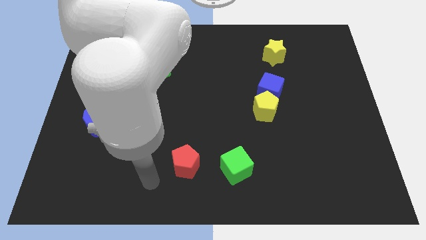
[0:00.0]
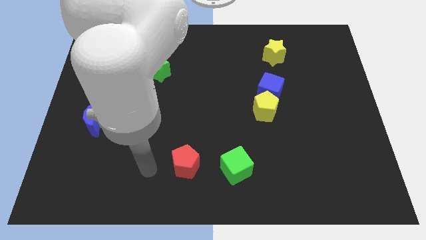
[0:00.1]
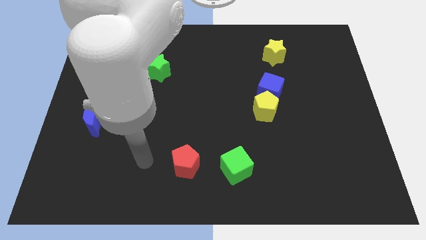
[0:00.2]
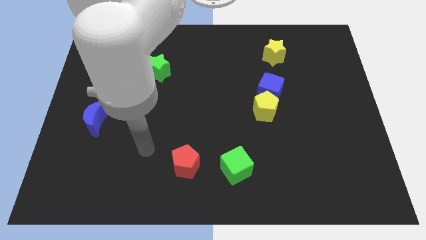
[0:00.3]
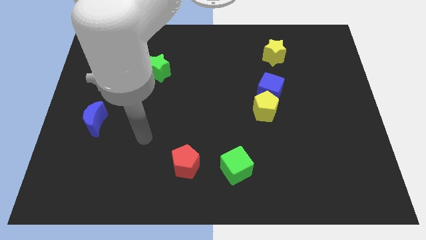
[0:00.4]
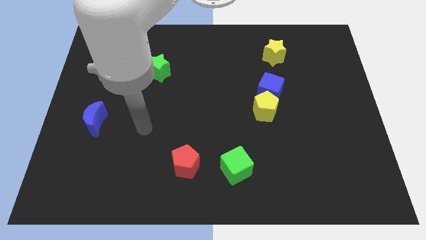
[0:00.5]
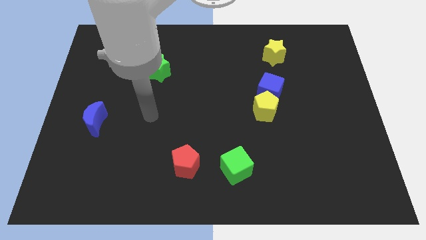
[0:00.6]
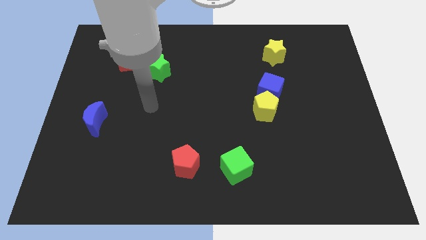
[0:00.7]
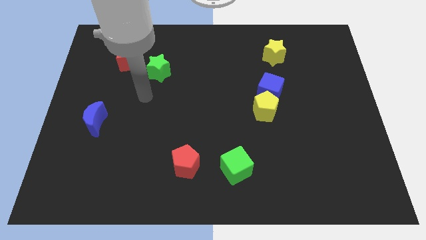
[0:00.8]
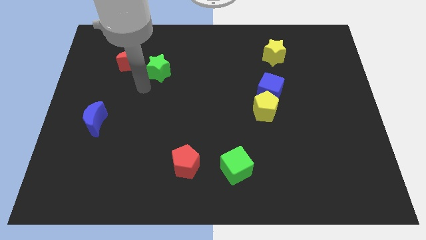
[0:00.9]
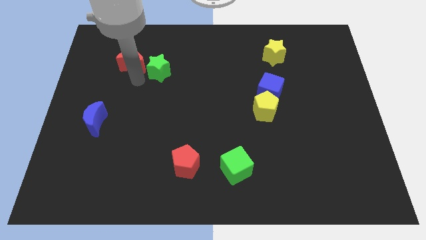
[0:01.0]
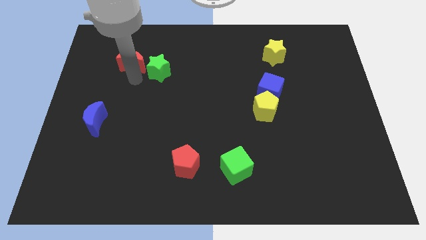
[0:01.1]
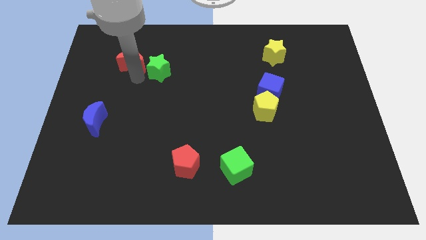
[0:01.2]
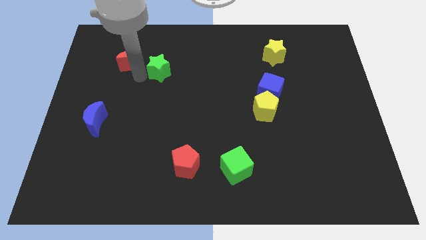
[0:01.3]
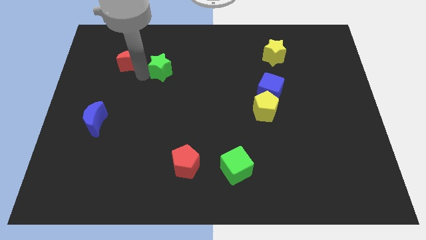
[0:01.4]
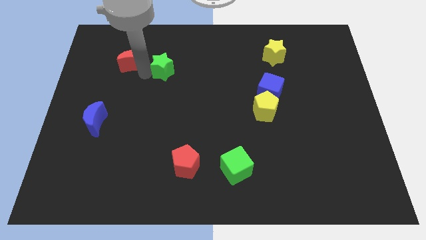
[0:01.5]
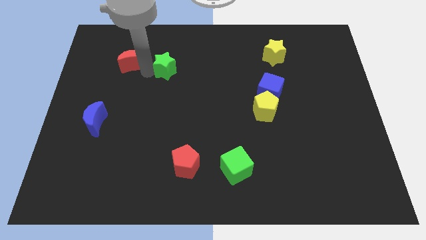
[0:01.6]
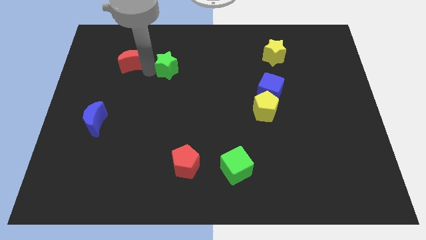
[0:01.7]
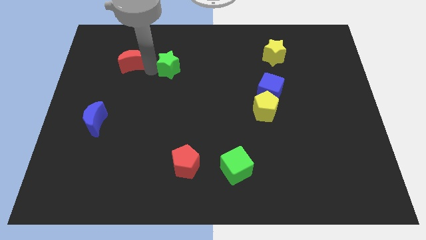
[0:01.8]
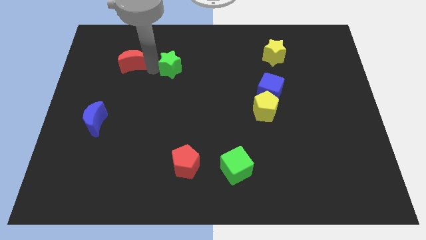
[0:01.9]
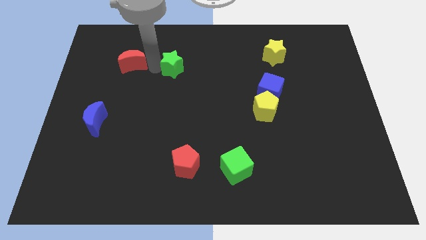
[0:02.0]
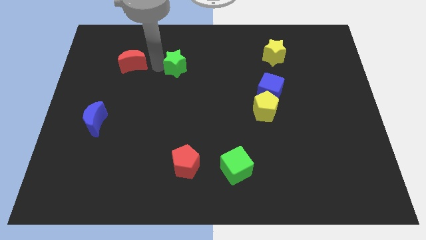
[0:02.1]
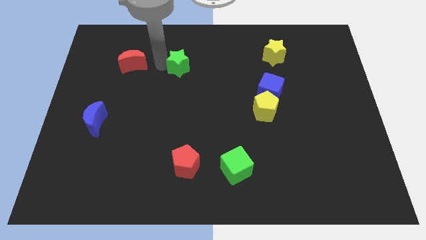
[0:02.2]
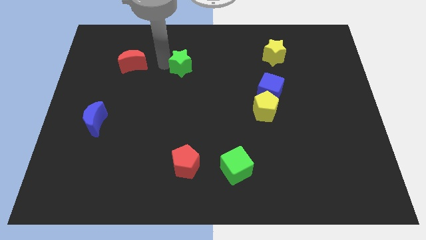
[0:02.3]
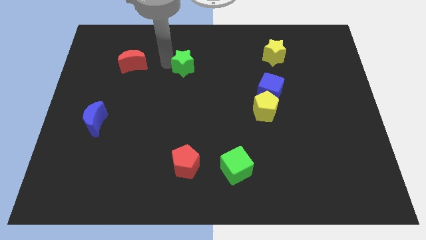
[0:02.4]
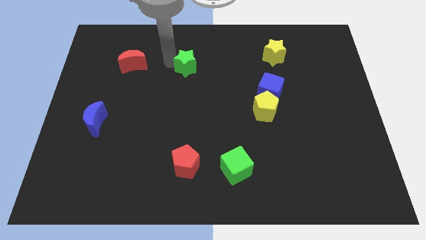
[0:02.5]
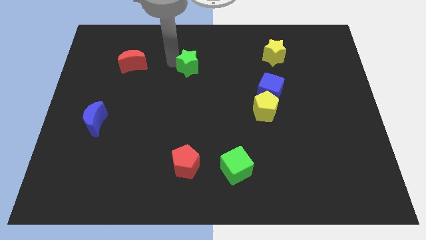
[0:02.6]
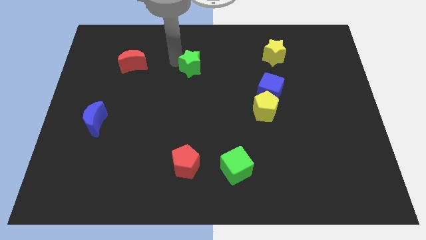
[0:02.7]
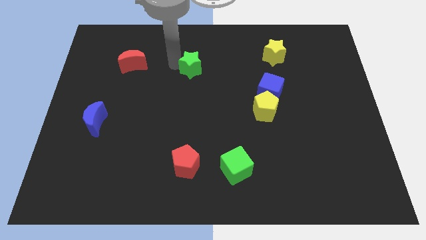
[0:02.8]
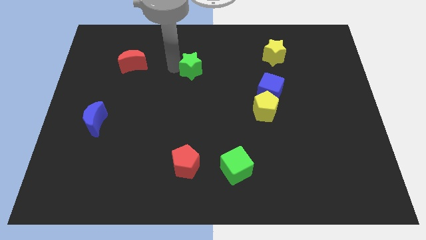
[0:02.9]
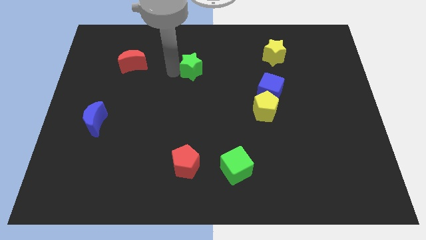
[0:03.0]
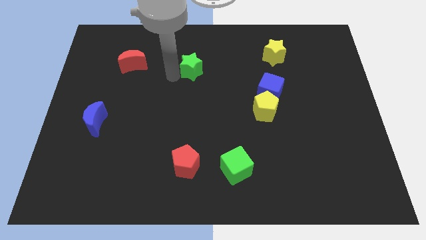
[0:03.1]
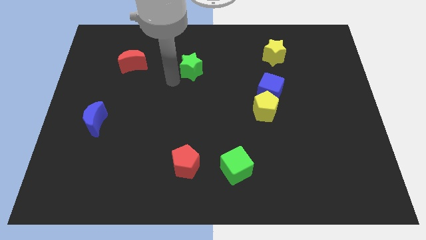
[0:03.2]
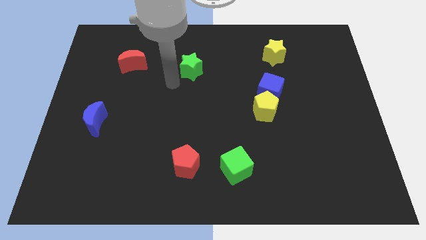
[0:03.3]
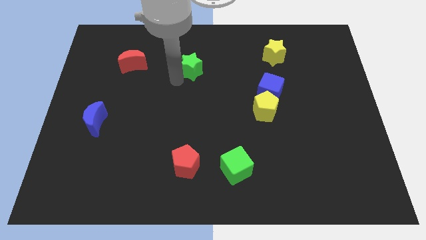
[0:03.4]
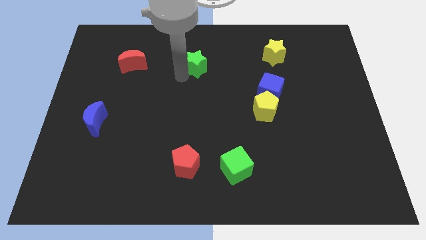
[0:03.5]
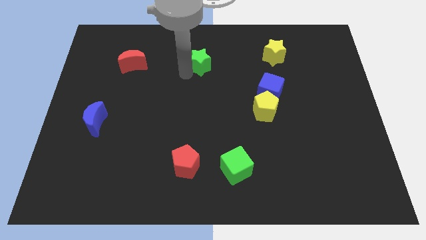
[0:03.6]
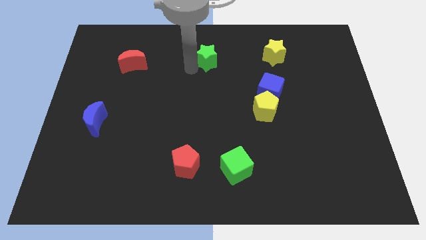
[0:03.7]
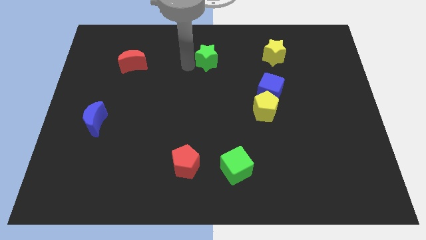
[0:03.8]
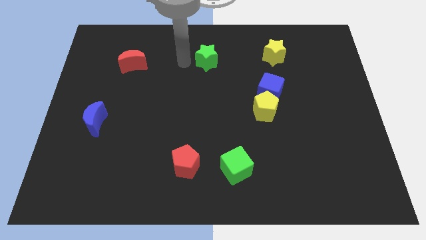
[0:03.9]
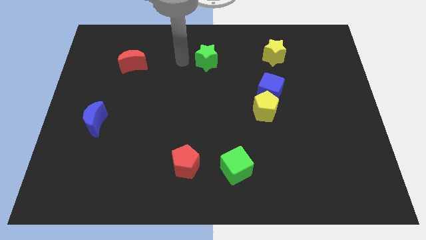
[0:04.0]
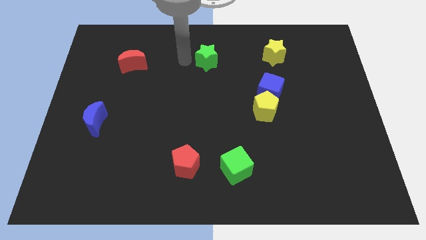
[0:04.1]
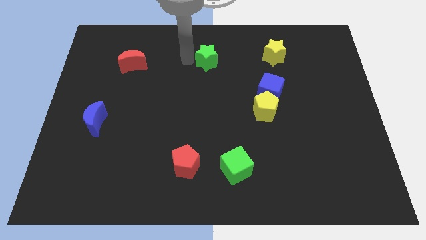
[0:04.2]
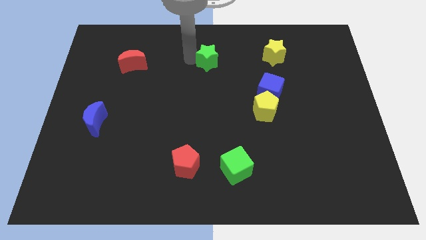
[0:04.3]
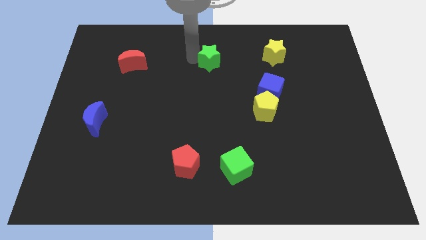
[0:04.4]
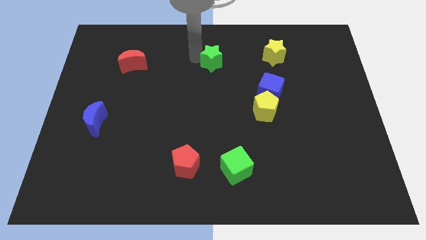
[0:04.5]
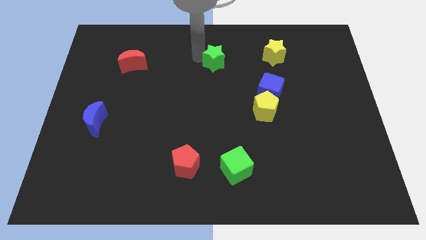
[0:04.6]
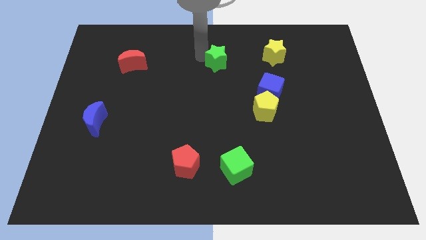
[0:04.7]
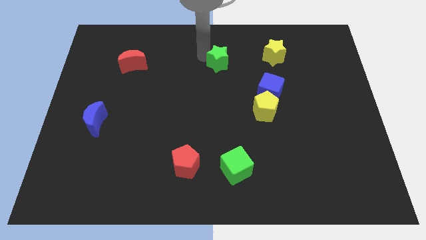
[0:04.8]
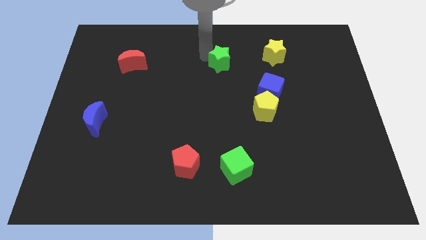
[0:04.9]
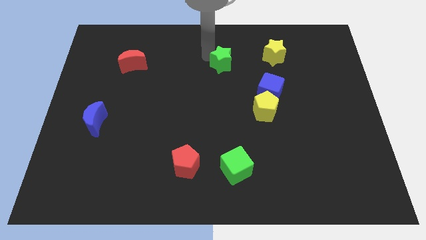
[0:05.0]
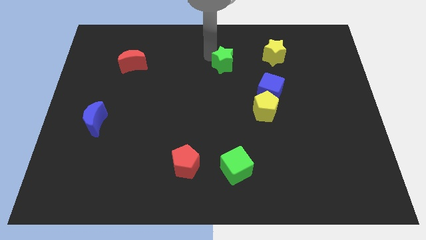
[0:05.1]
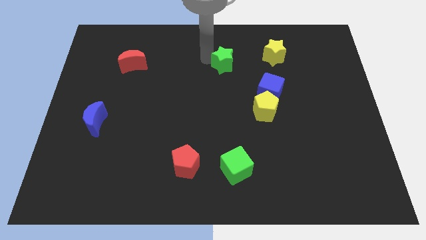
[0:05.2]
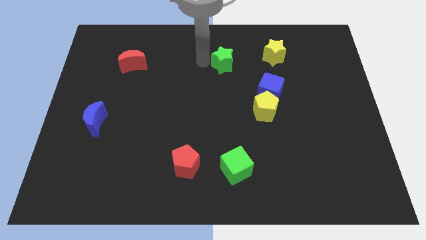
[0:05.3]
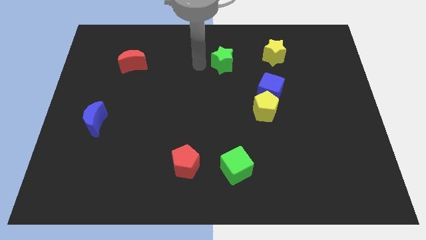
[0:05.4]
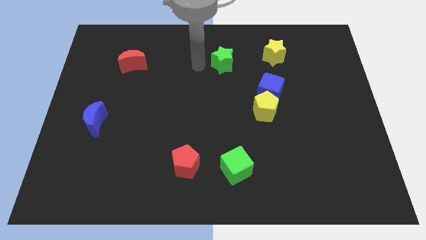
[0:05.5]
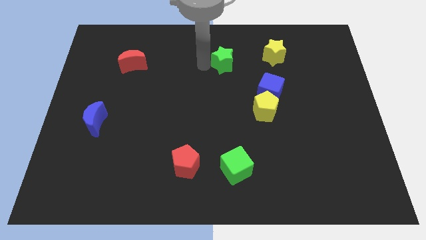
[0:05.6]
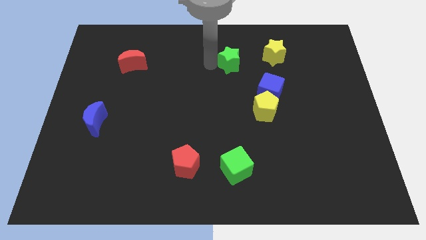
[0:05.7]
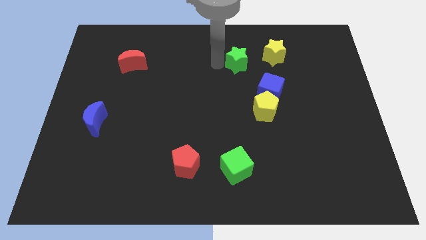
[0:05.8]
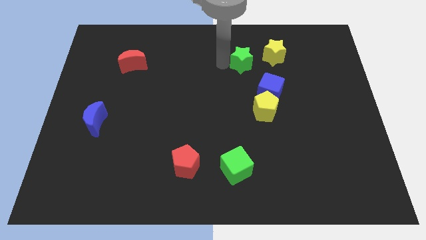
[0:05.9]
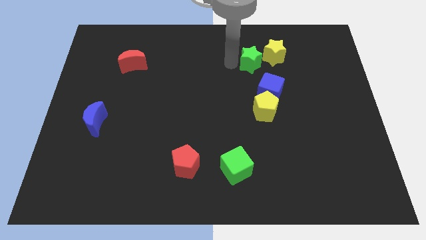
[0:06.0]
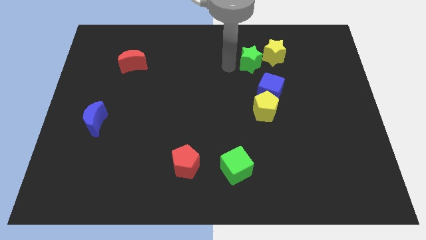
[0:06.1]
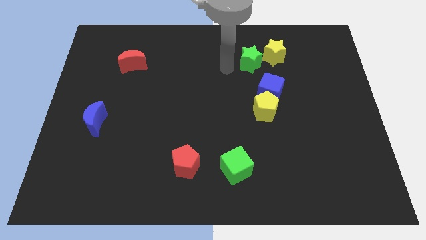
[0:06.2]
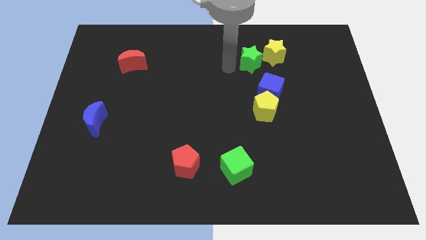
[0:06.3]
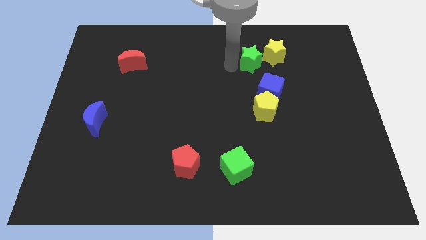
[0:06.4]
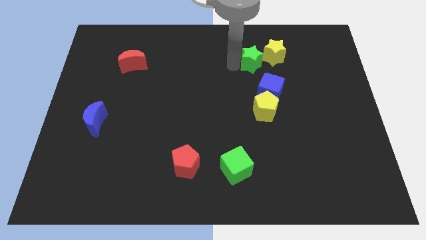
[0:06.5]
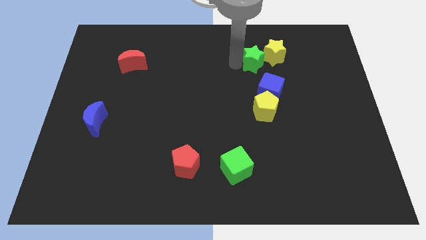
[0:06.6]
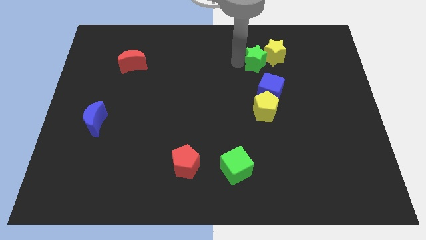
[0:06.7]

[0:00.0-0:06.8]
slide the green star to the yellow star

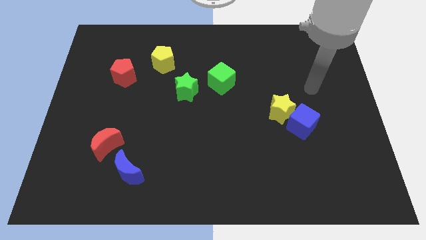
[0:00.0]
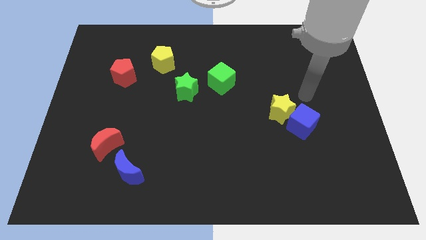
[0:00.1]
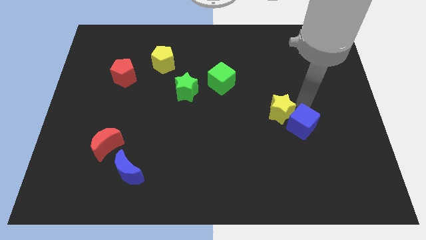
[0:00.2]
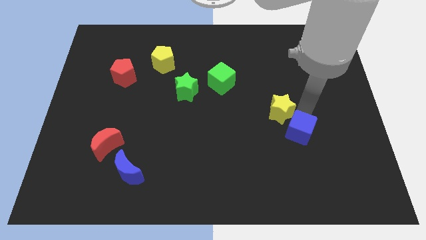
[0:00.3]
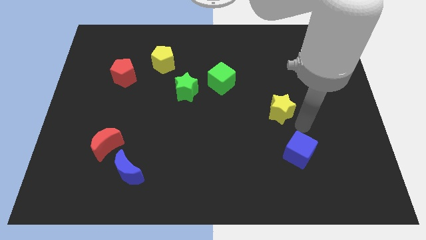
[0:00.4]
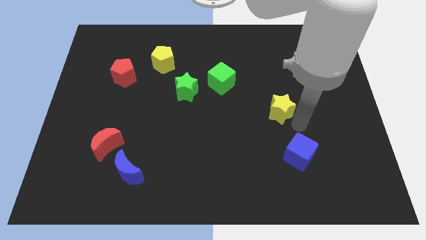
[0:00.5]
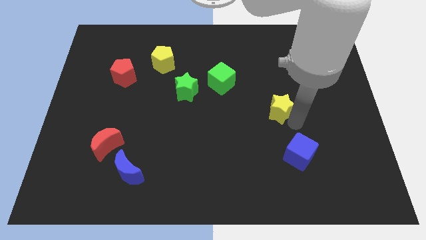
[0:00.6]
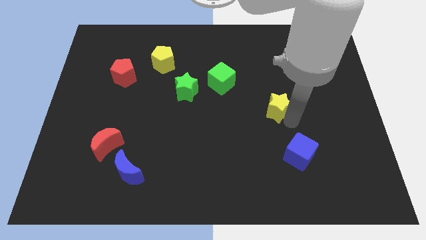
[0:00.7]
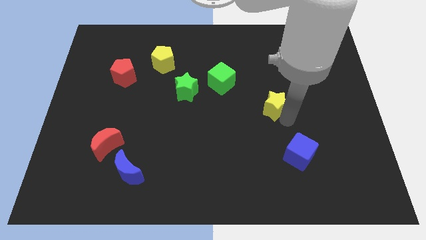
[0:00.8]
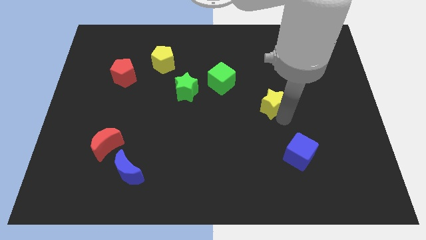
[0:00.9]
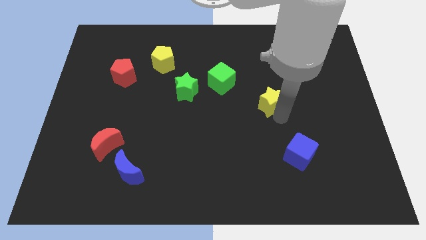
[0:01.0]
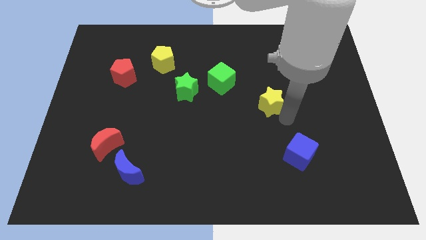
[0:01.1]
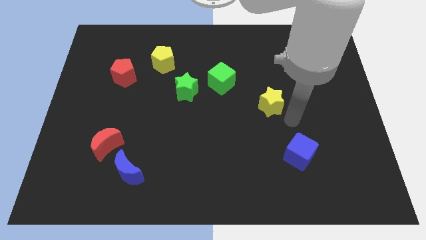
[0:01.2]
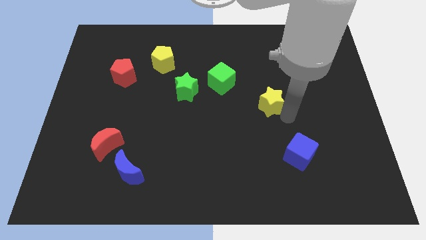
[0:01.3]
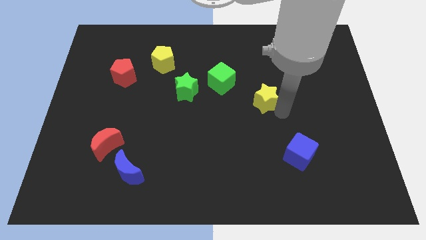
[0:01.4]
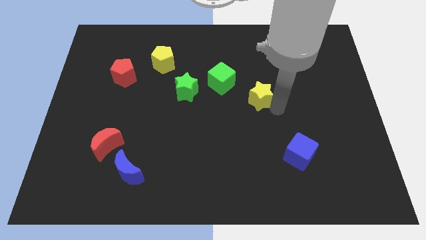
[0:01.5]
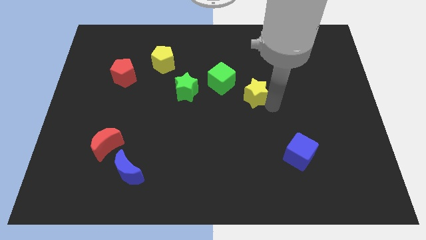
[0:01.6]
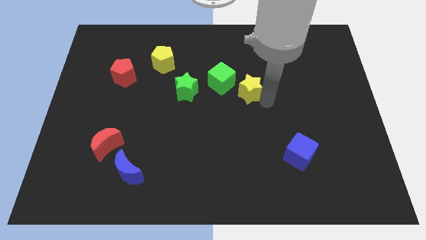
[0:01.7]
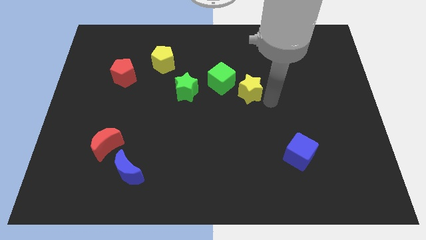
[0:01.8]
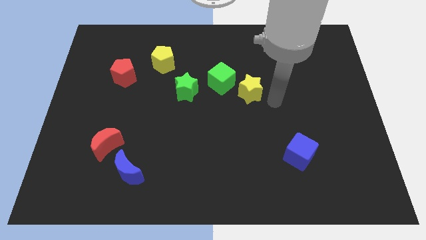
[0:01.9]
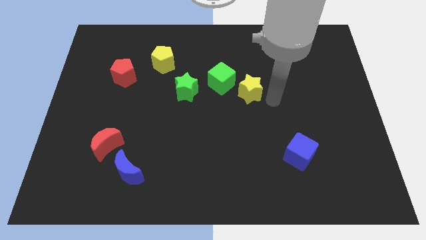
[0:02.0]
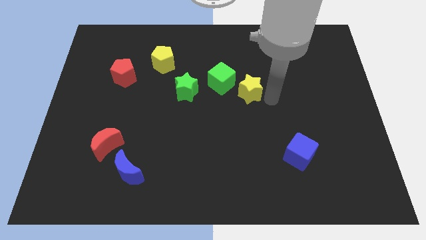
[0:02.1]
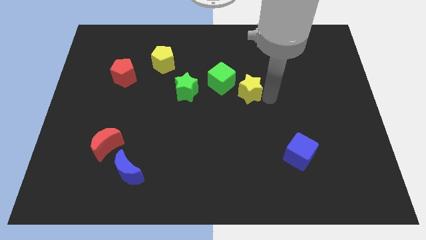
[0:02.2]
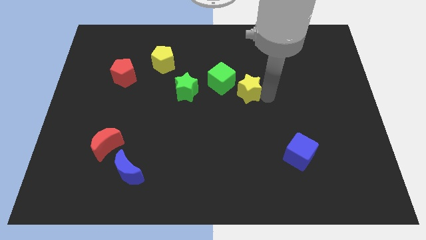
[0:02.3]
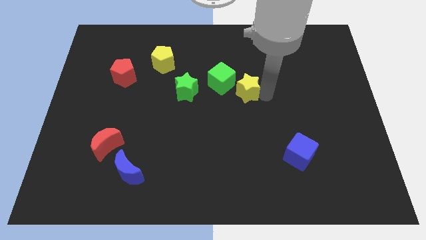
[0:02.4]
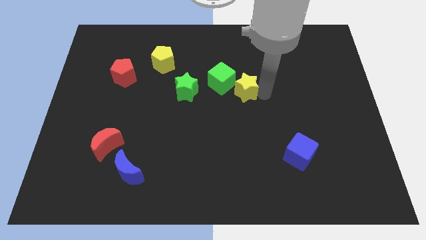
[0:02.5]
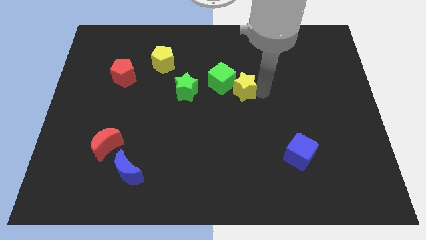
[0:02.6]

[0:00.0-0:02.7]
push the yellow star to the green cube
